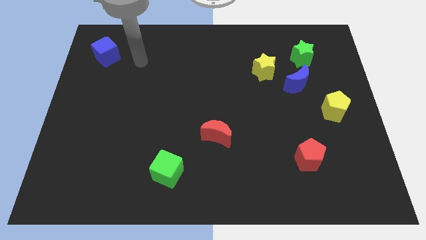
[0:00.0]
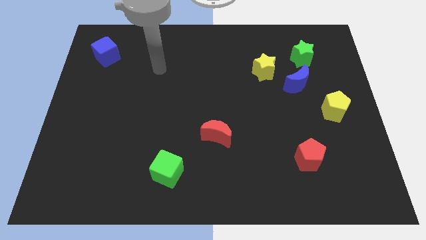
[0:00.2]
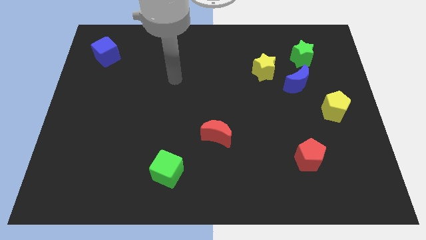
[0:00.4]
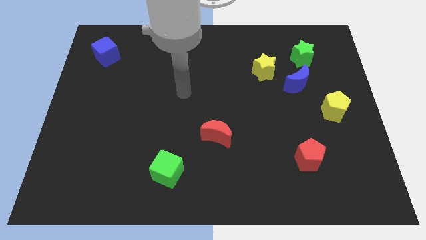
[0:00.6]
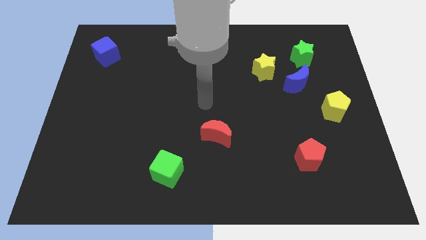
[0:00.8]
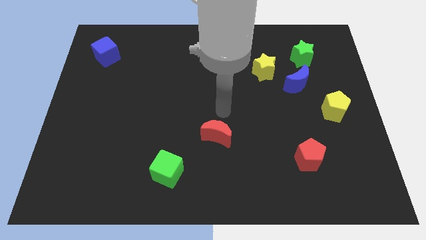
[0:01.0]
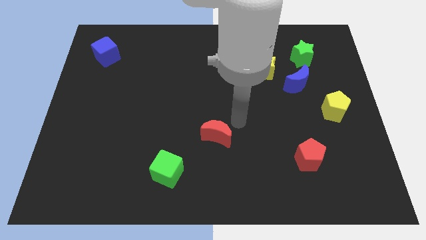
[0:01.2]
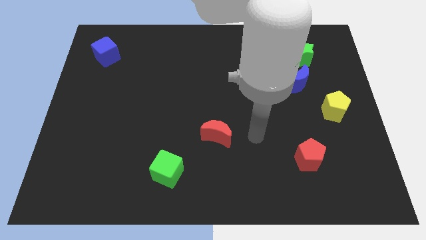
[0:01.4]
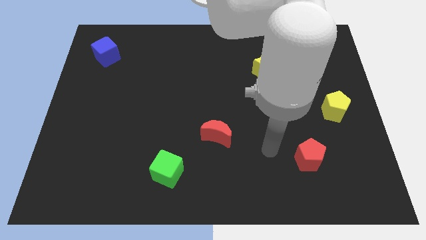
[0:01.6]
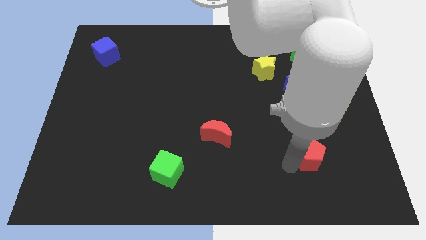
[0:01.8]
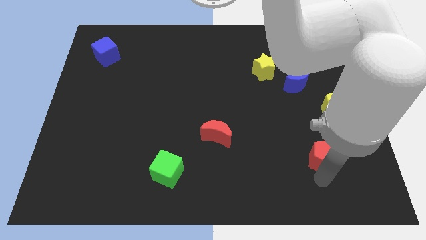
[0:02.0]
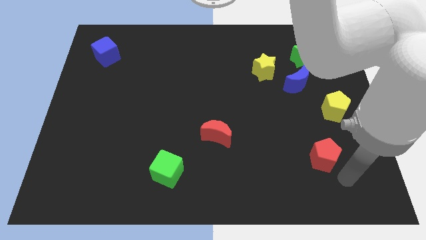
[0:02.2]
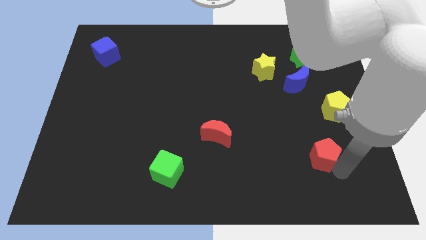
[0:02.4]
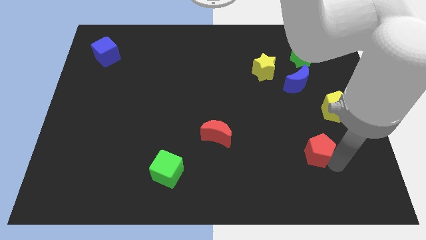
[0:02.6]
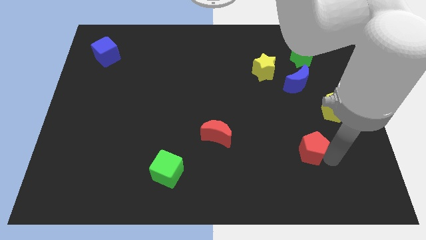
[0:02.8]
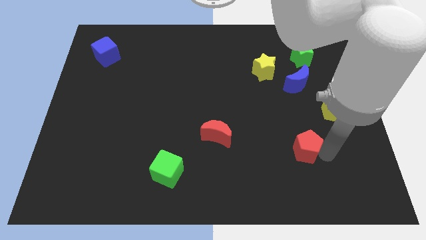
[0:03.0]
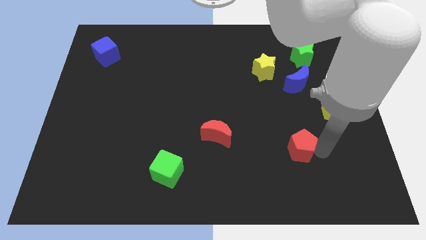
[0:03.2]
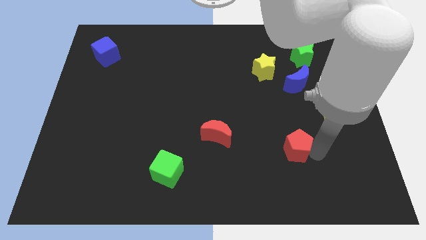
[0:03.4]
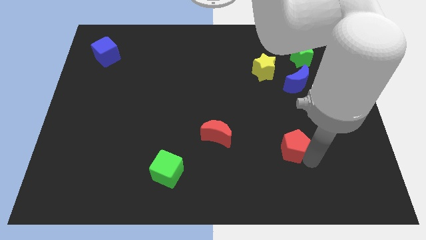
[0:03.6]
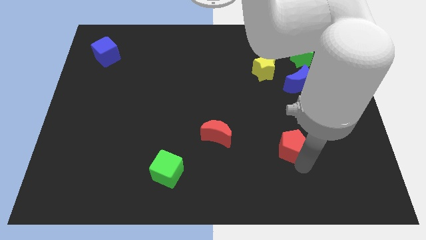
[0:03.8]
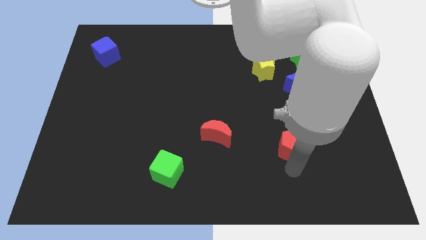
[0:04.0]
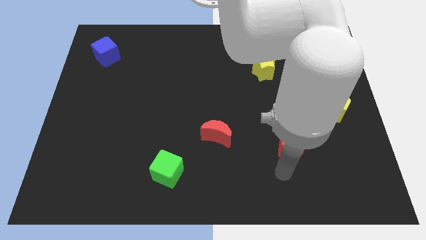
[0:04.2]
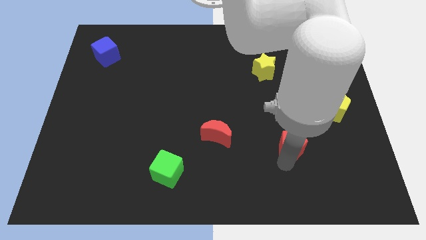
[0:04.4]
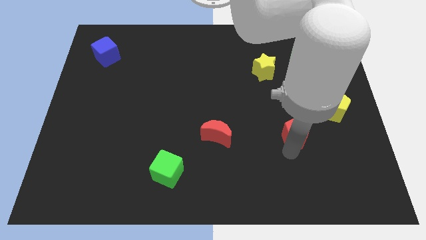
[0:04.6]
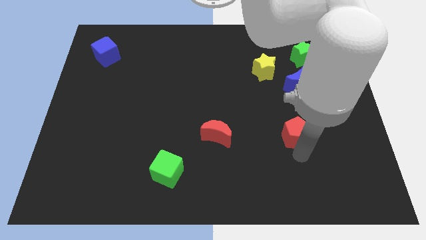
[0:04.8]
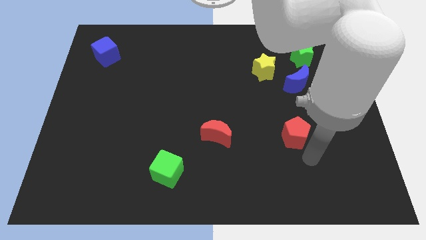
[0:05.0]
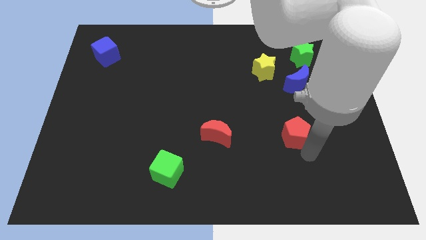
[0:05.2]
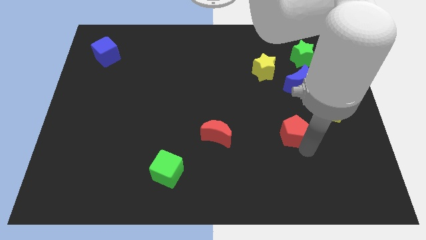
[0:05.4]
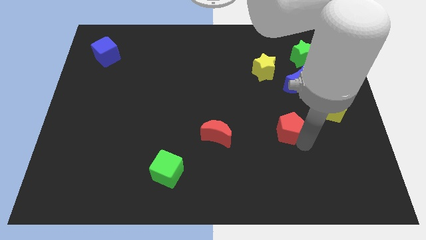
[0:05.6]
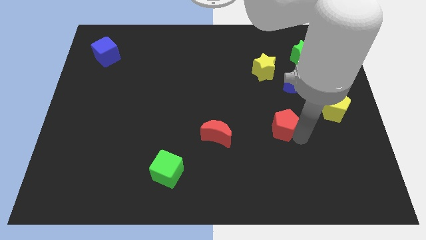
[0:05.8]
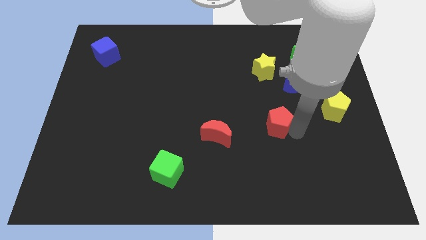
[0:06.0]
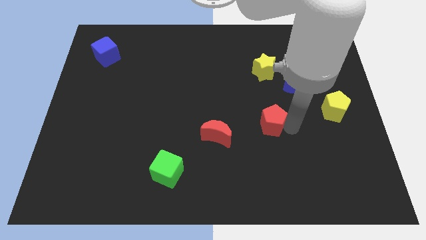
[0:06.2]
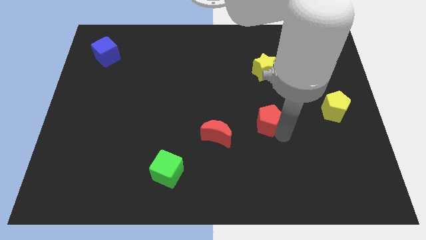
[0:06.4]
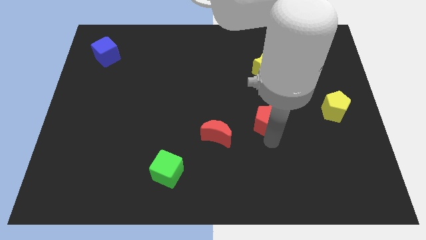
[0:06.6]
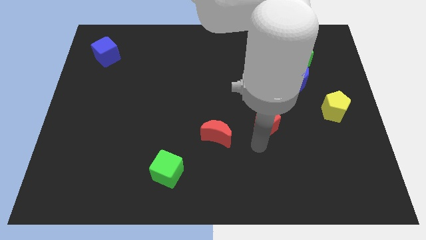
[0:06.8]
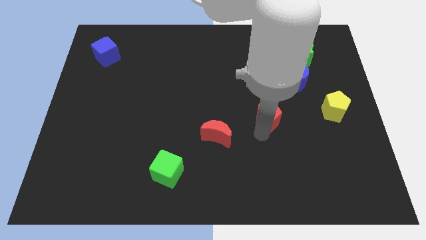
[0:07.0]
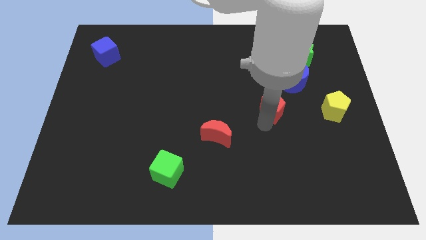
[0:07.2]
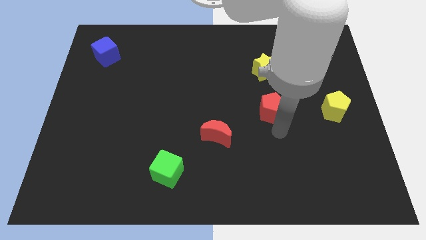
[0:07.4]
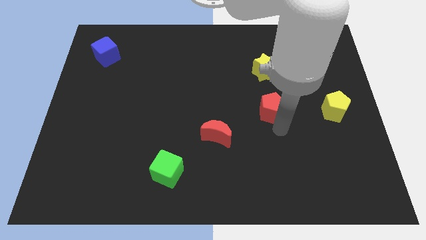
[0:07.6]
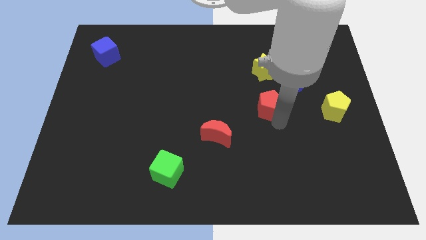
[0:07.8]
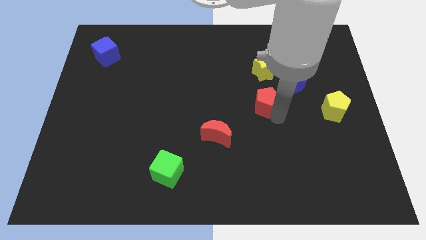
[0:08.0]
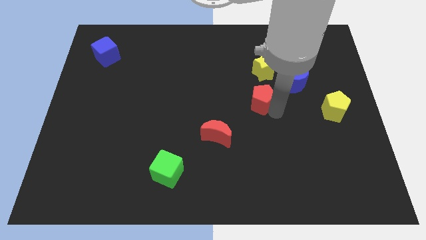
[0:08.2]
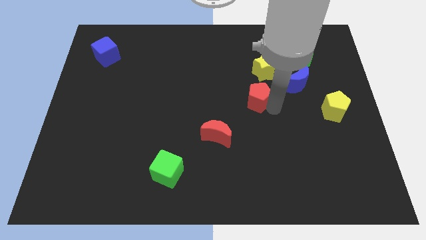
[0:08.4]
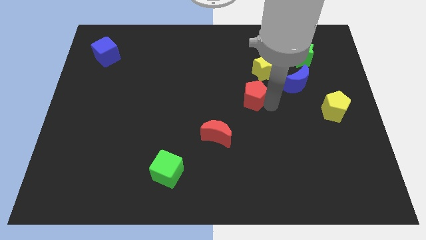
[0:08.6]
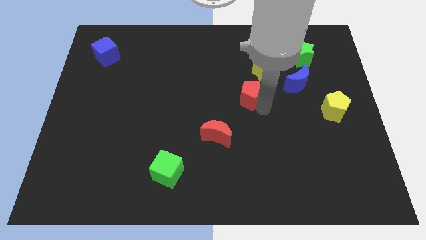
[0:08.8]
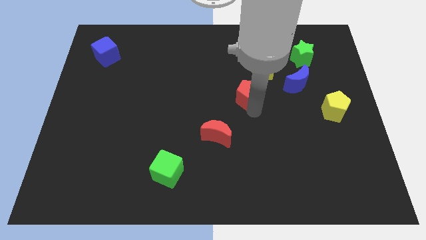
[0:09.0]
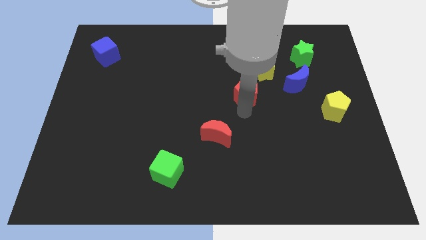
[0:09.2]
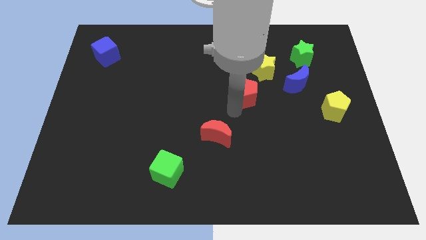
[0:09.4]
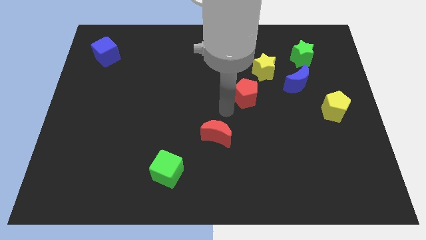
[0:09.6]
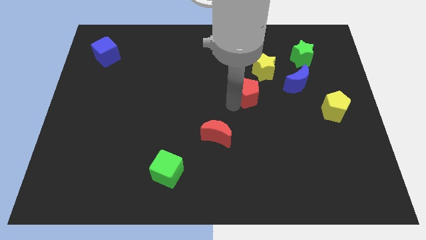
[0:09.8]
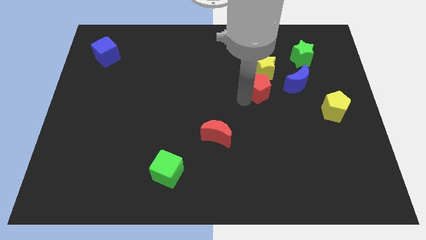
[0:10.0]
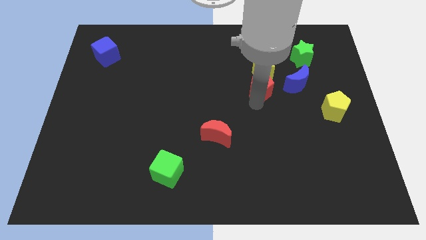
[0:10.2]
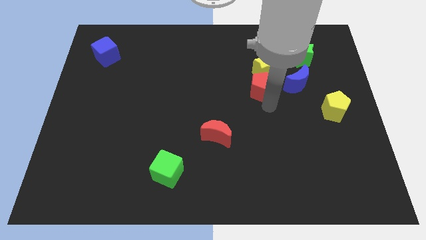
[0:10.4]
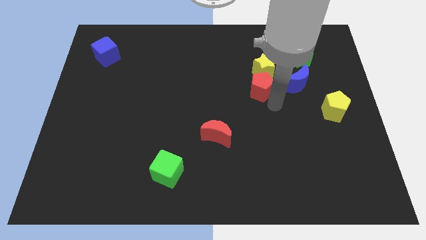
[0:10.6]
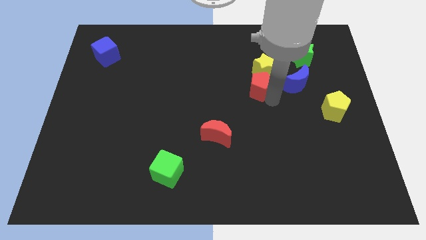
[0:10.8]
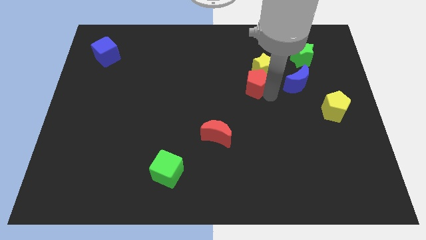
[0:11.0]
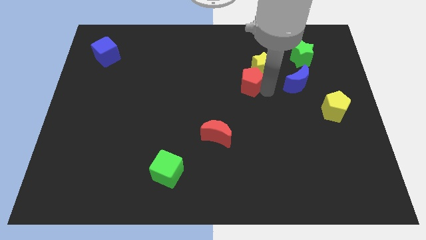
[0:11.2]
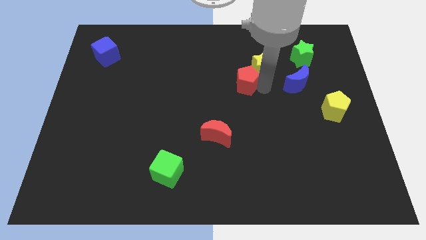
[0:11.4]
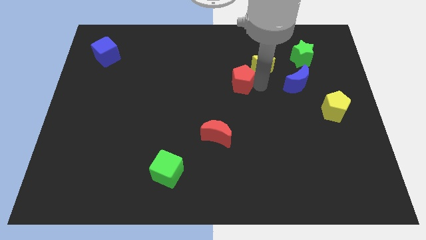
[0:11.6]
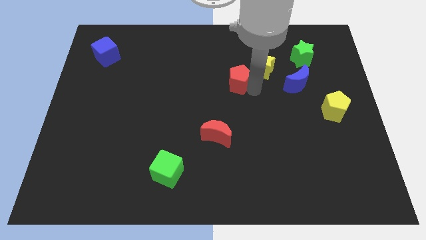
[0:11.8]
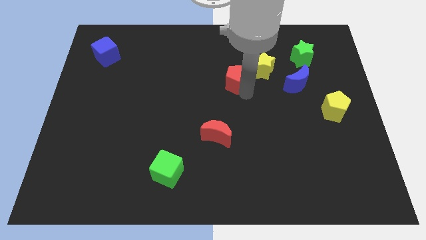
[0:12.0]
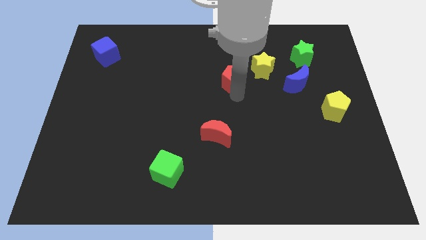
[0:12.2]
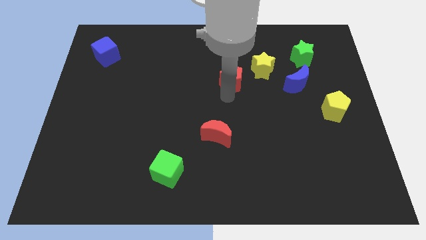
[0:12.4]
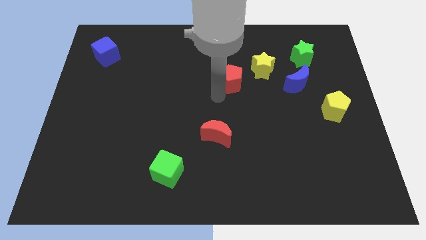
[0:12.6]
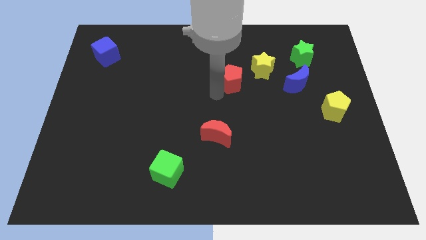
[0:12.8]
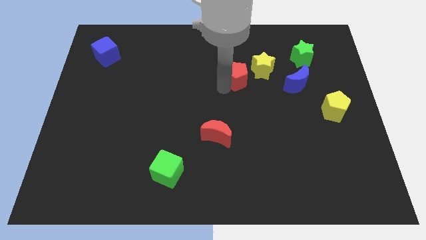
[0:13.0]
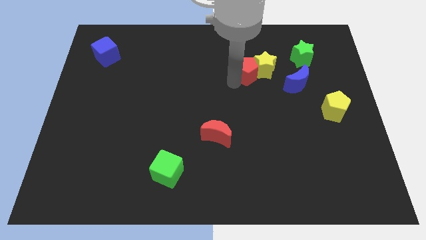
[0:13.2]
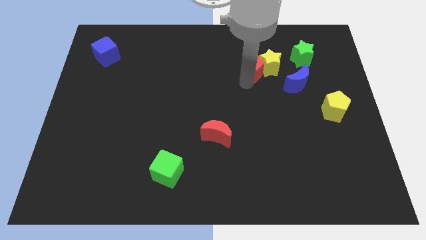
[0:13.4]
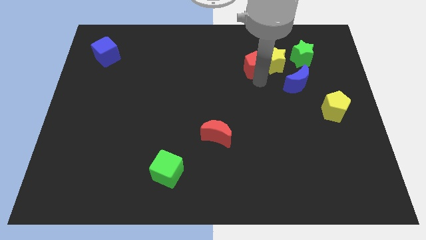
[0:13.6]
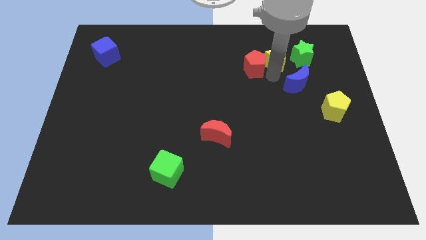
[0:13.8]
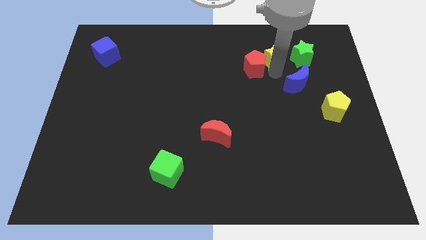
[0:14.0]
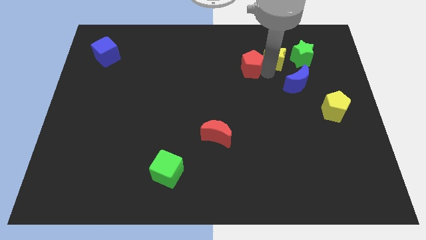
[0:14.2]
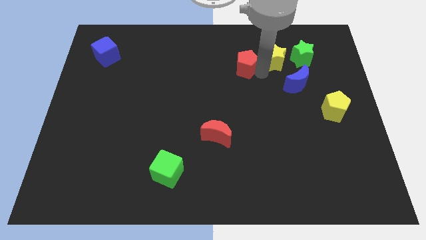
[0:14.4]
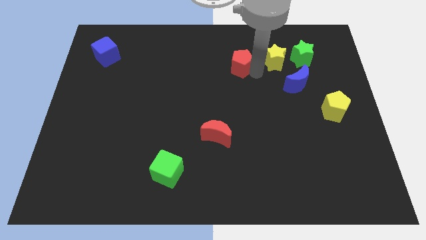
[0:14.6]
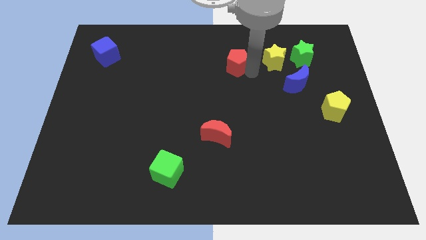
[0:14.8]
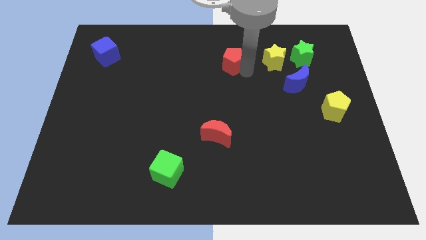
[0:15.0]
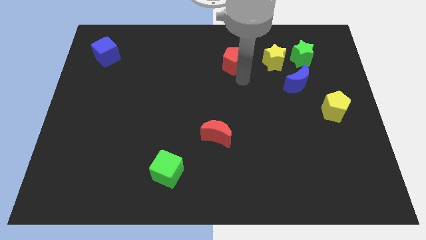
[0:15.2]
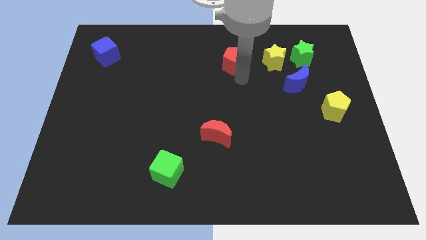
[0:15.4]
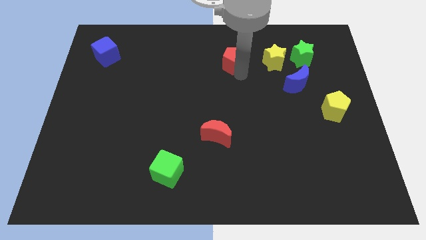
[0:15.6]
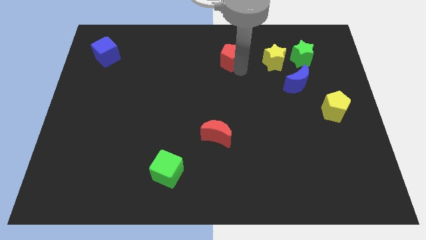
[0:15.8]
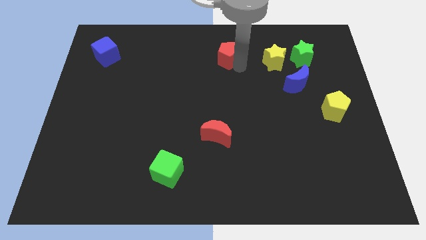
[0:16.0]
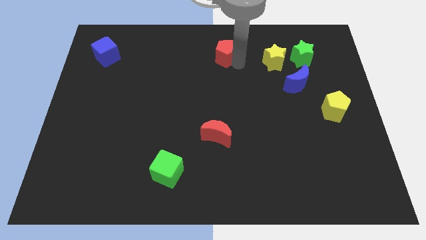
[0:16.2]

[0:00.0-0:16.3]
push the red pentagon to the top side
